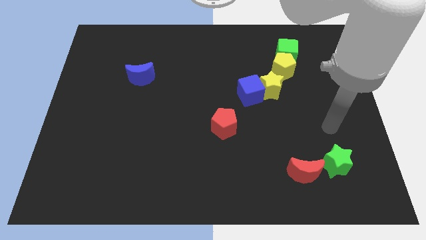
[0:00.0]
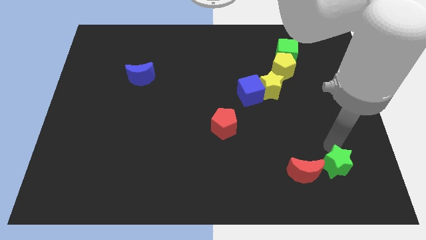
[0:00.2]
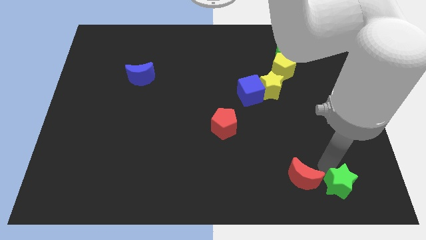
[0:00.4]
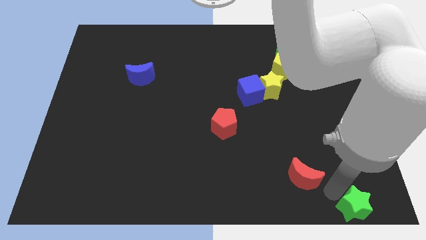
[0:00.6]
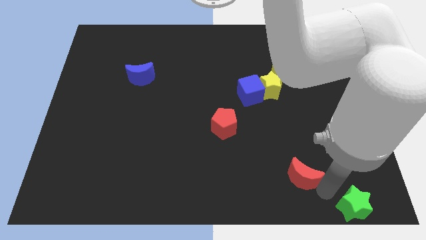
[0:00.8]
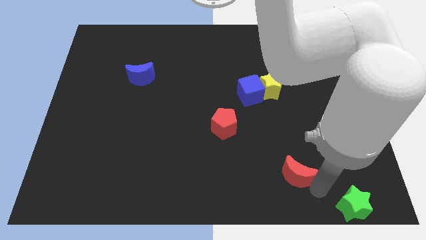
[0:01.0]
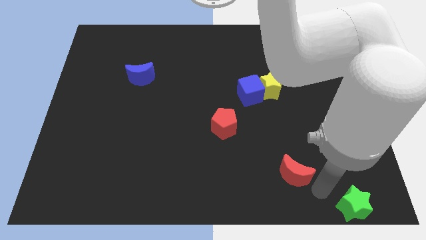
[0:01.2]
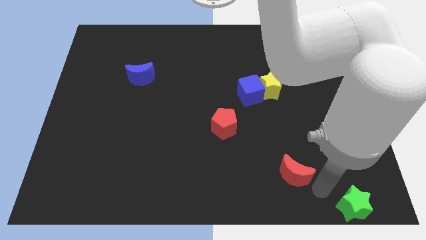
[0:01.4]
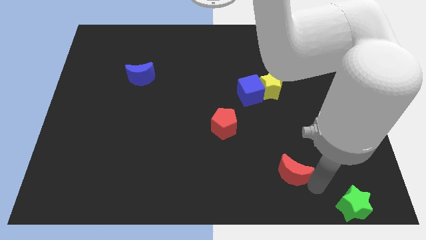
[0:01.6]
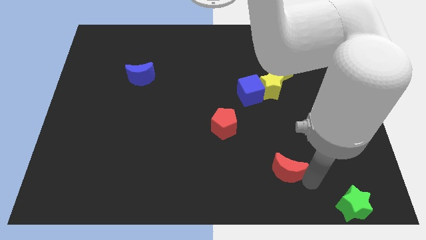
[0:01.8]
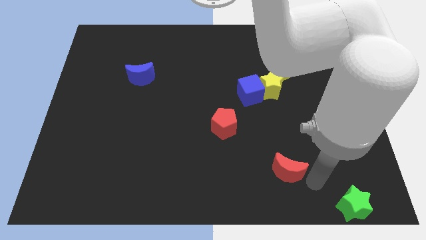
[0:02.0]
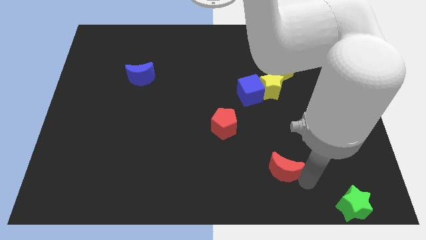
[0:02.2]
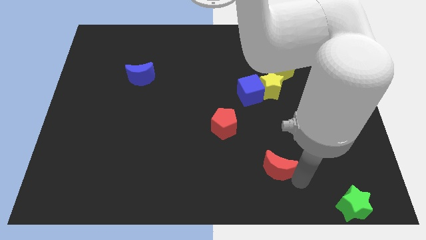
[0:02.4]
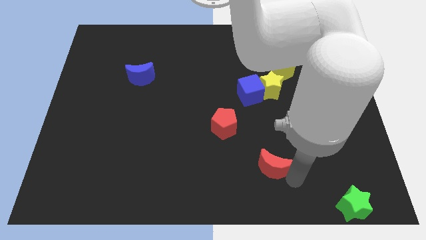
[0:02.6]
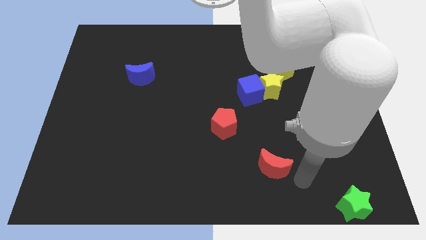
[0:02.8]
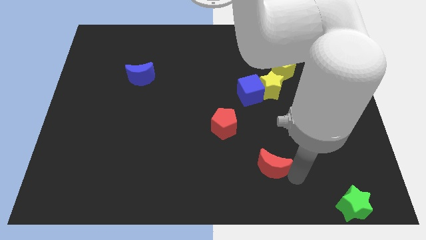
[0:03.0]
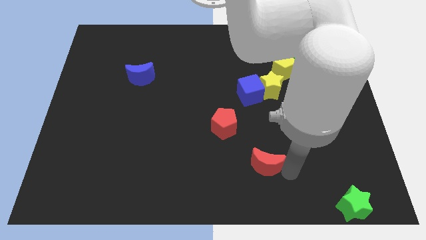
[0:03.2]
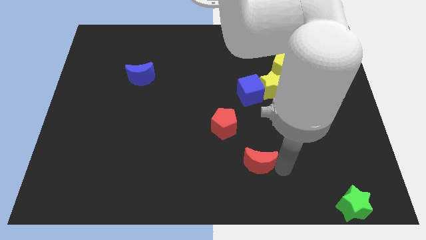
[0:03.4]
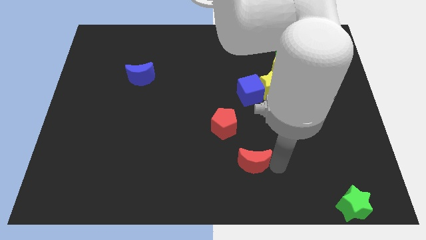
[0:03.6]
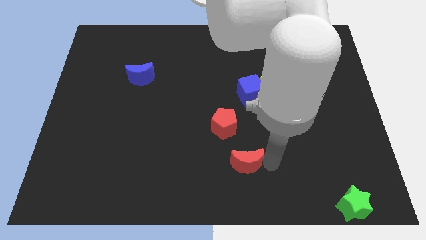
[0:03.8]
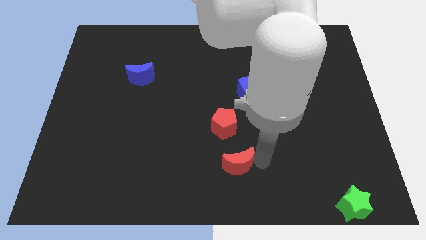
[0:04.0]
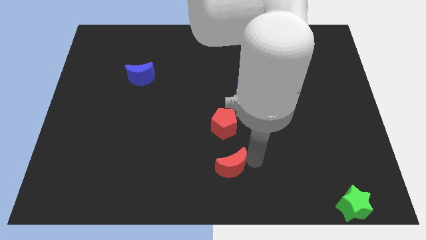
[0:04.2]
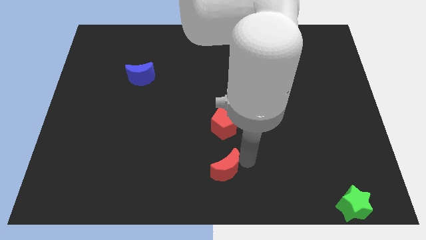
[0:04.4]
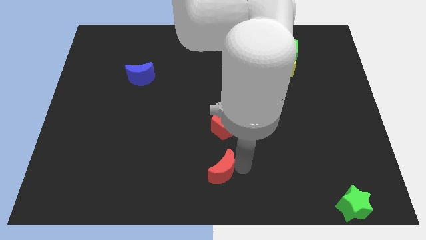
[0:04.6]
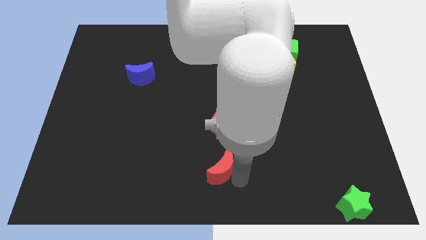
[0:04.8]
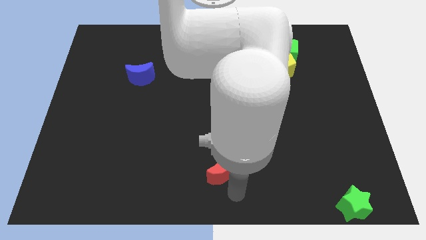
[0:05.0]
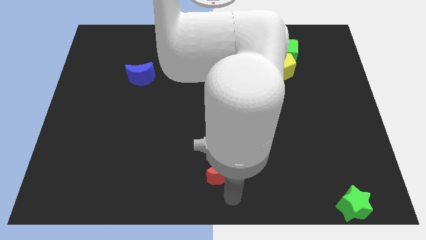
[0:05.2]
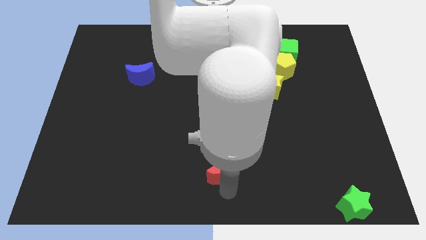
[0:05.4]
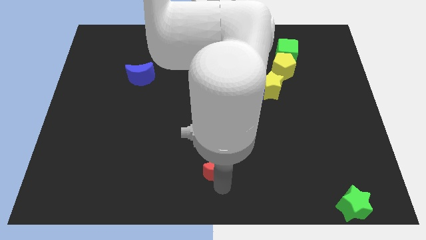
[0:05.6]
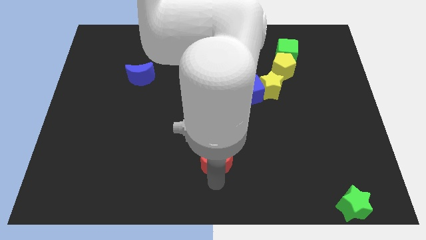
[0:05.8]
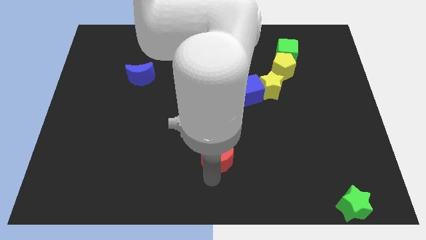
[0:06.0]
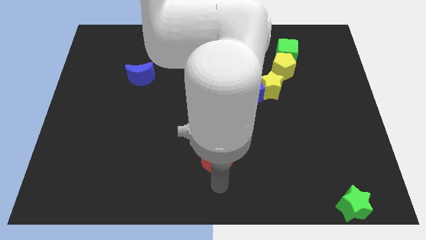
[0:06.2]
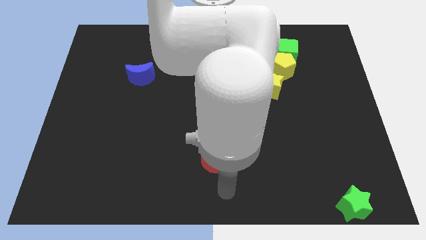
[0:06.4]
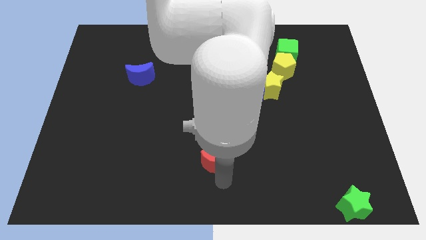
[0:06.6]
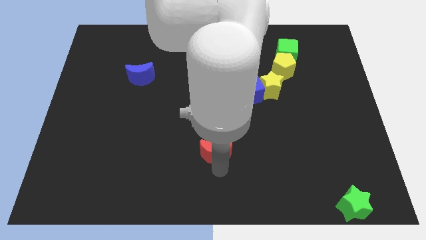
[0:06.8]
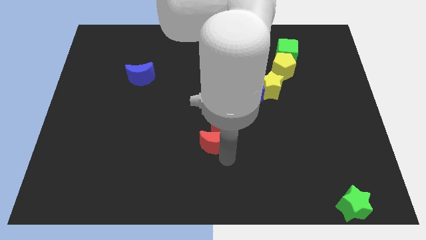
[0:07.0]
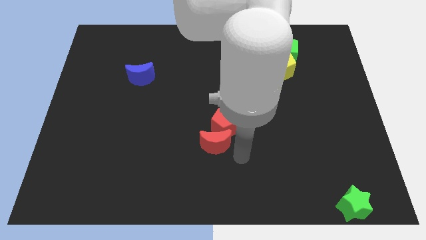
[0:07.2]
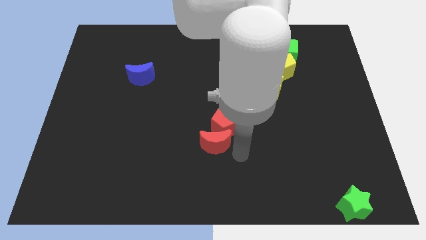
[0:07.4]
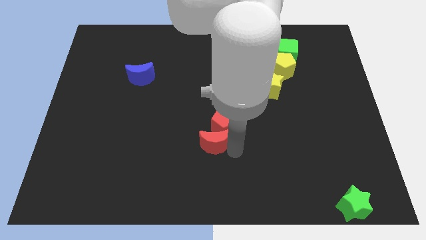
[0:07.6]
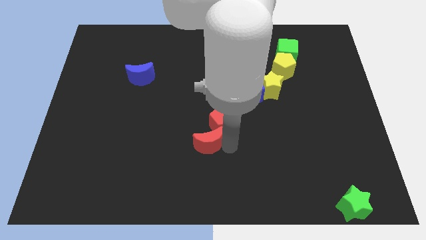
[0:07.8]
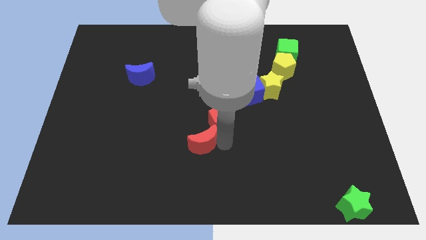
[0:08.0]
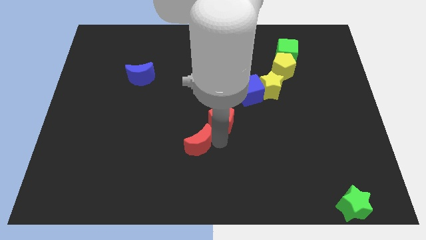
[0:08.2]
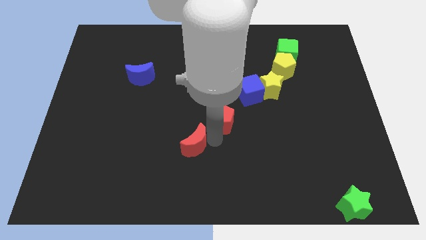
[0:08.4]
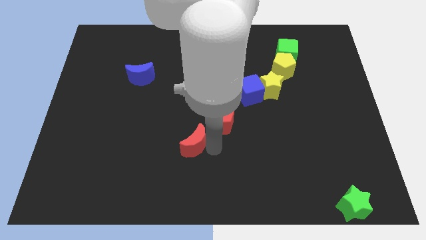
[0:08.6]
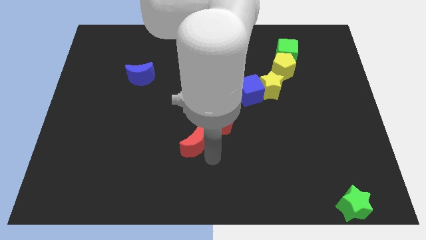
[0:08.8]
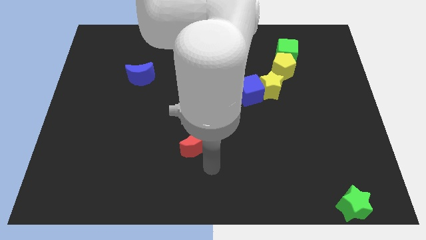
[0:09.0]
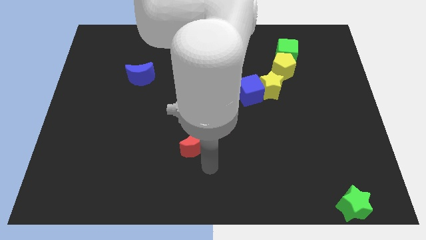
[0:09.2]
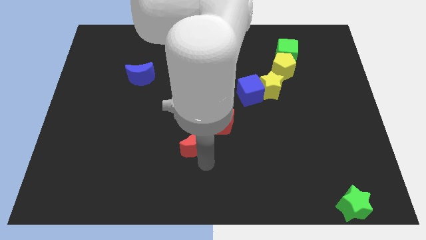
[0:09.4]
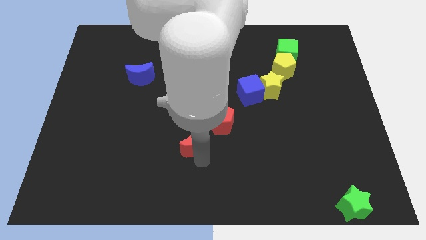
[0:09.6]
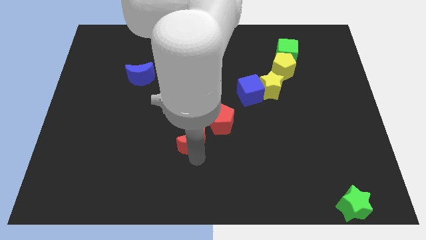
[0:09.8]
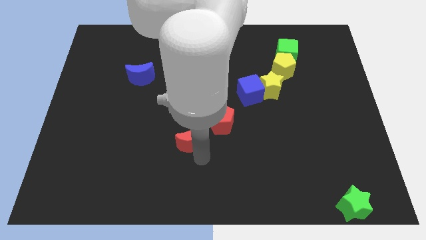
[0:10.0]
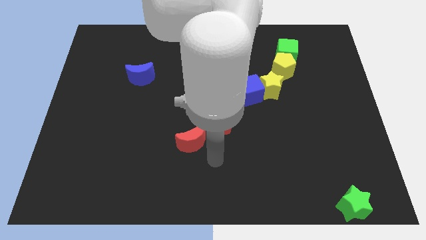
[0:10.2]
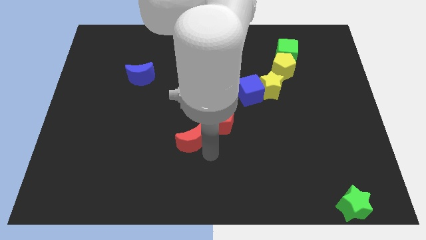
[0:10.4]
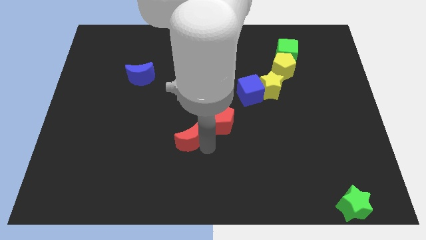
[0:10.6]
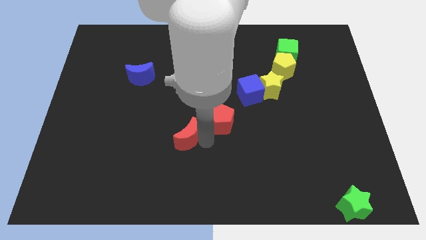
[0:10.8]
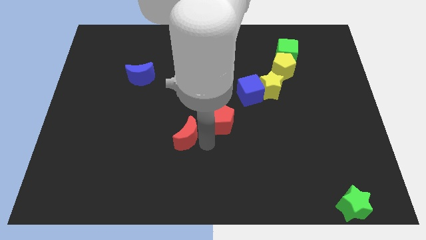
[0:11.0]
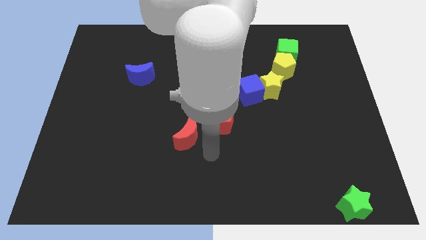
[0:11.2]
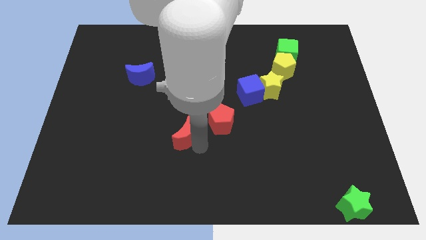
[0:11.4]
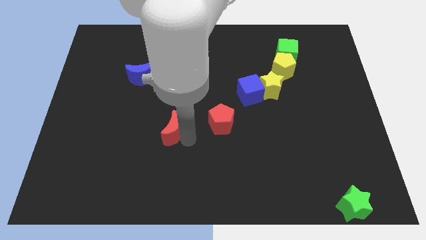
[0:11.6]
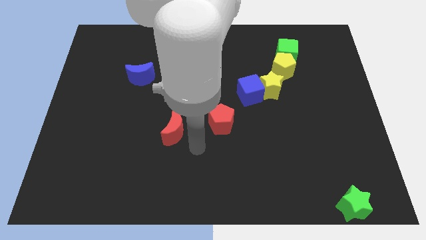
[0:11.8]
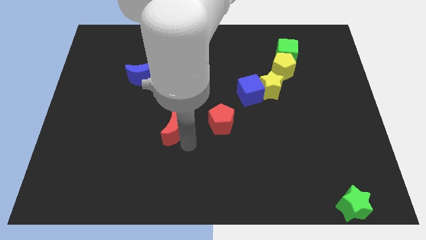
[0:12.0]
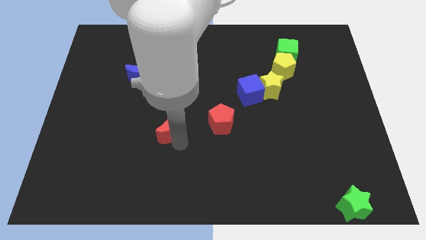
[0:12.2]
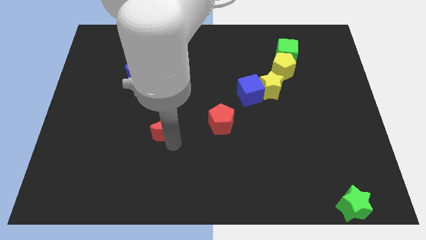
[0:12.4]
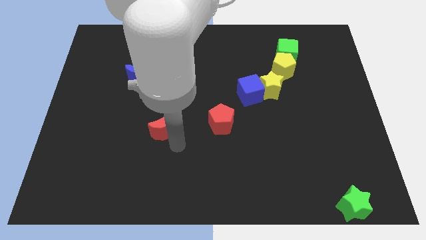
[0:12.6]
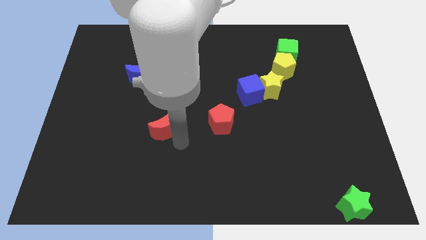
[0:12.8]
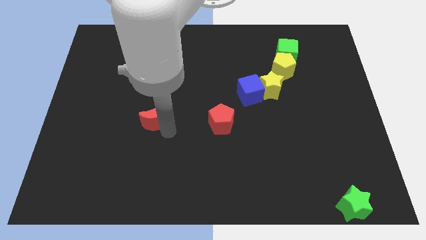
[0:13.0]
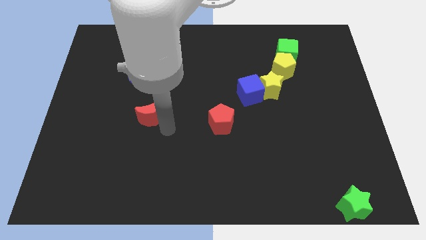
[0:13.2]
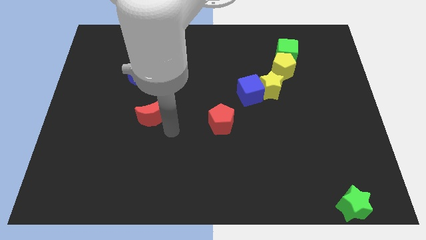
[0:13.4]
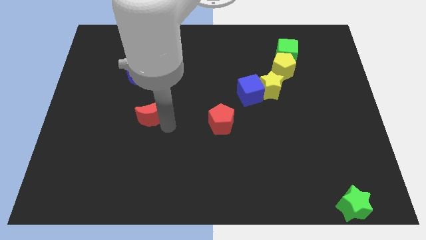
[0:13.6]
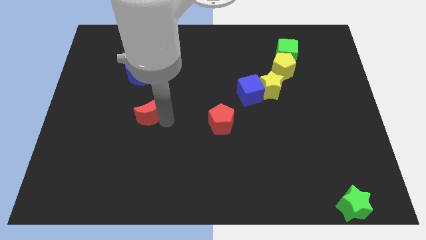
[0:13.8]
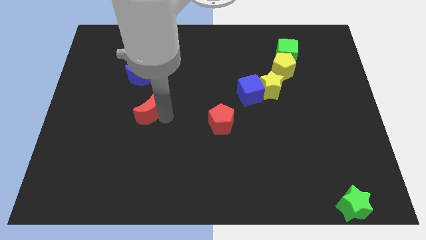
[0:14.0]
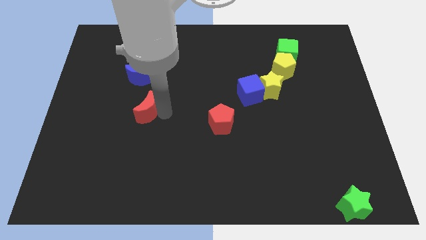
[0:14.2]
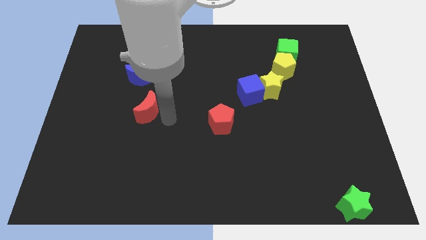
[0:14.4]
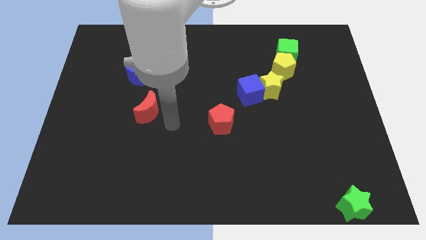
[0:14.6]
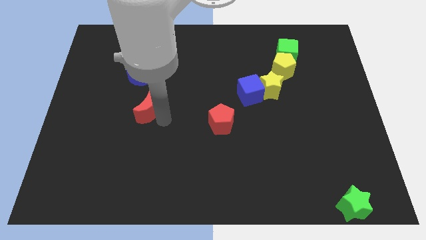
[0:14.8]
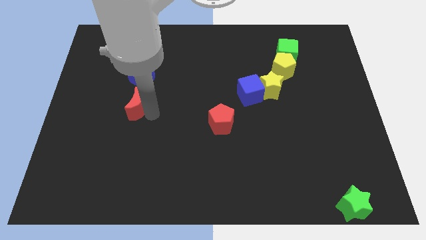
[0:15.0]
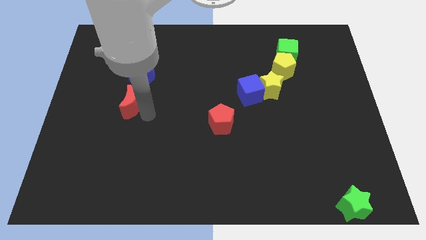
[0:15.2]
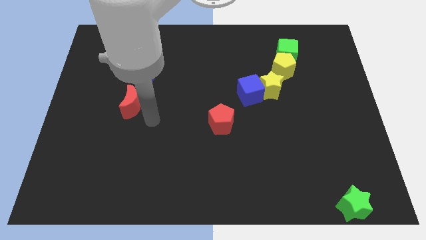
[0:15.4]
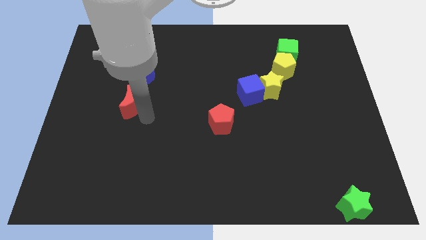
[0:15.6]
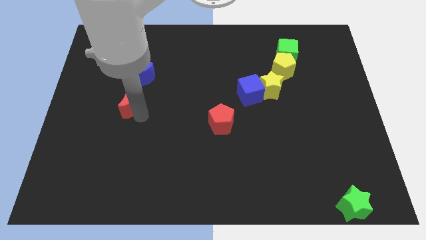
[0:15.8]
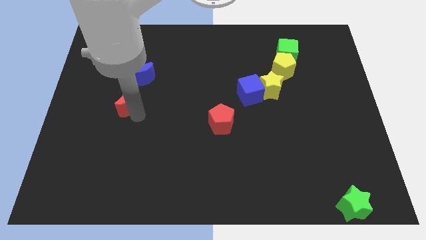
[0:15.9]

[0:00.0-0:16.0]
put the red moon to the bottom left side of the blue moon
